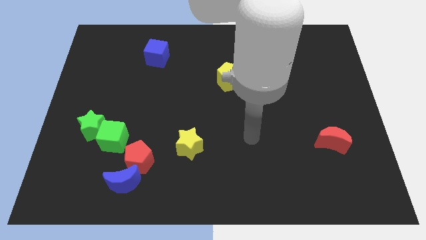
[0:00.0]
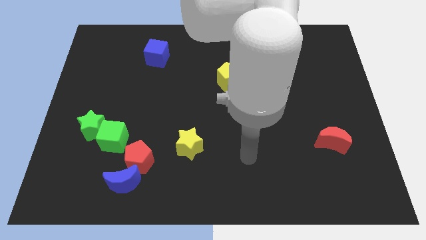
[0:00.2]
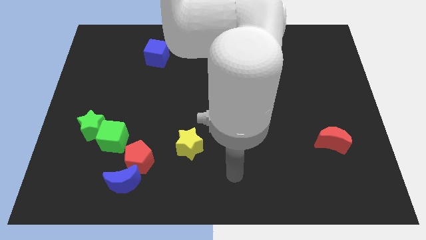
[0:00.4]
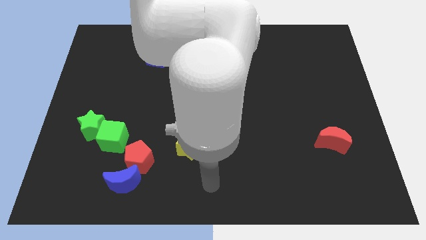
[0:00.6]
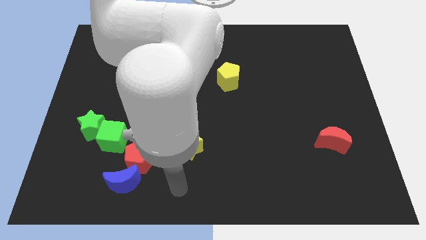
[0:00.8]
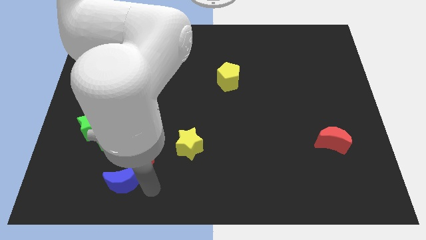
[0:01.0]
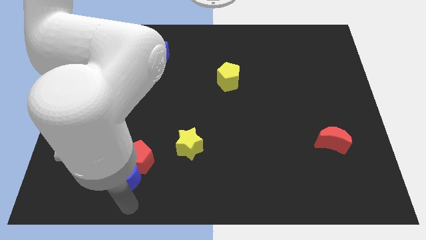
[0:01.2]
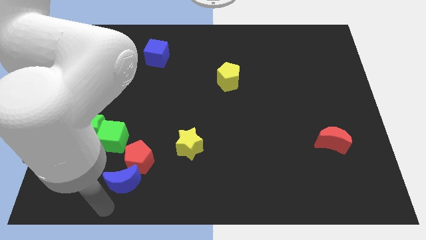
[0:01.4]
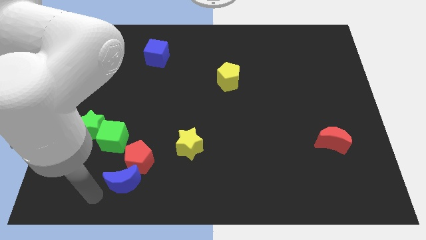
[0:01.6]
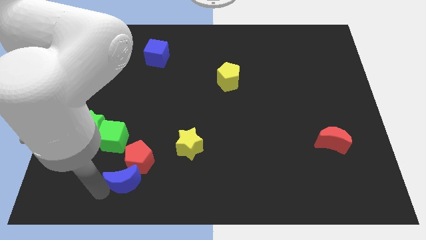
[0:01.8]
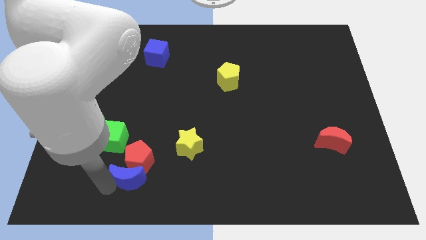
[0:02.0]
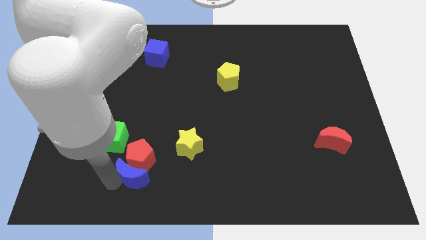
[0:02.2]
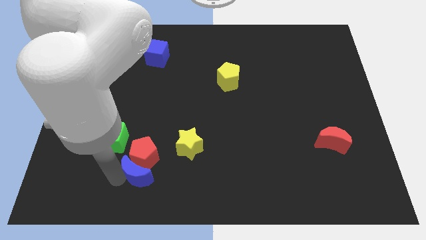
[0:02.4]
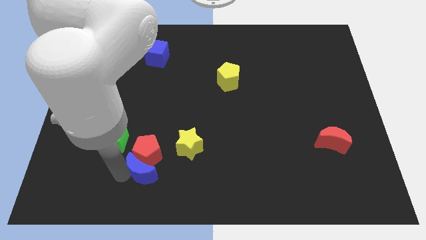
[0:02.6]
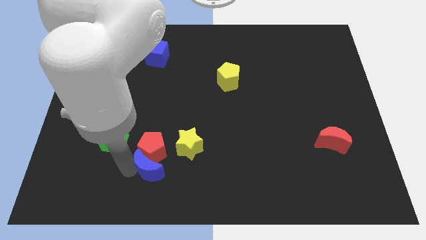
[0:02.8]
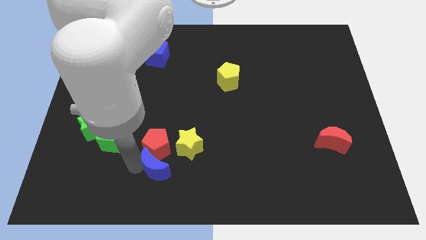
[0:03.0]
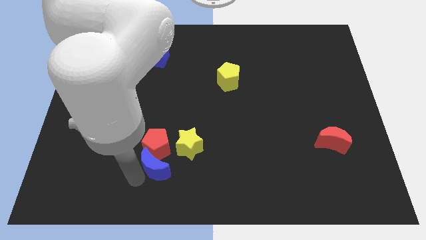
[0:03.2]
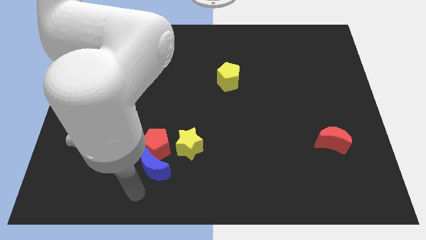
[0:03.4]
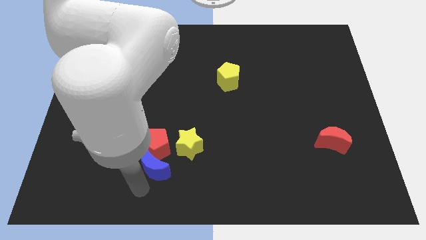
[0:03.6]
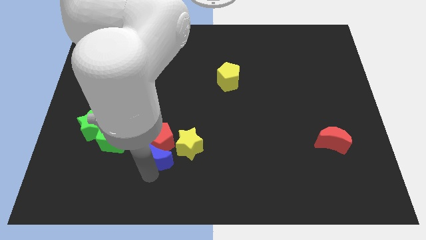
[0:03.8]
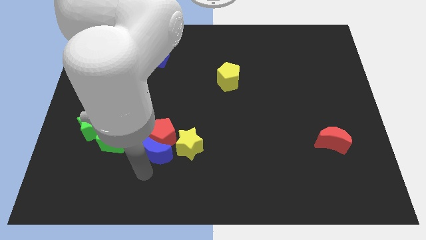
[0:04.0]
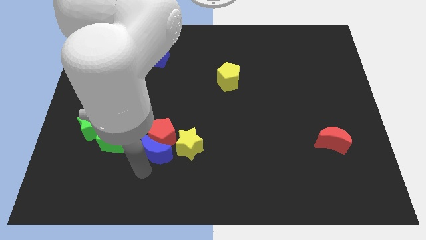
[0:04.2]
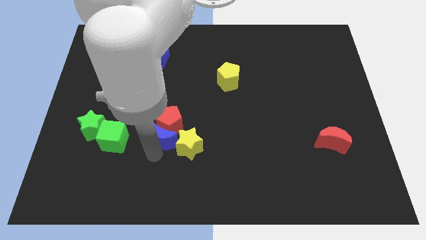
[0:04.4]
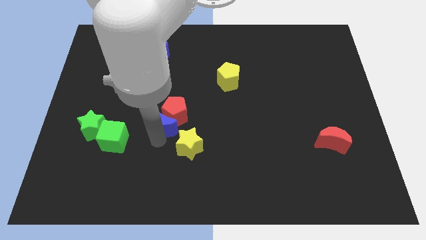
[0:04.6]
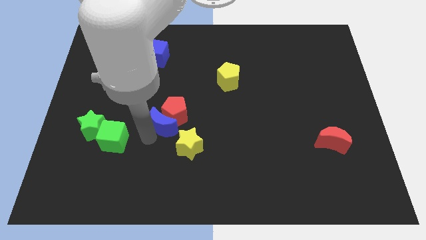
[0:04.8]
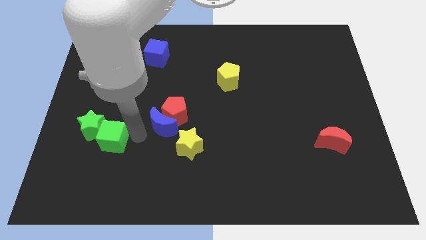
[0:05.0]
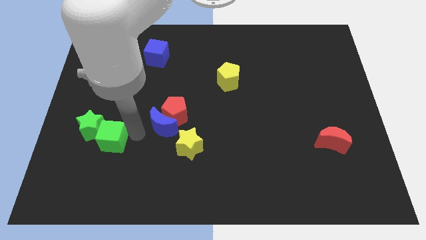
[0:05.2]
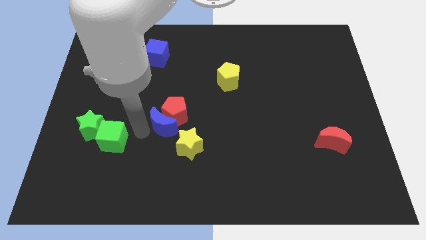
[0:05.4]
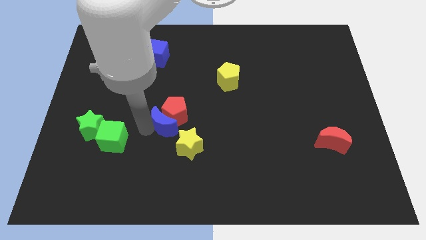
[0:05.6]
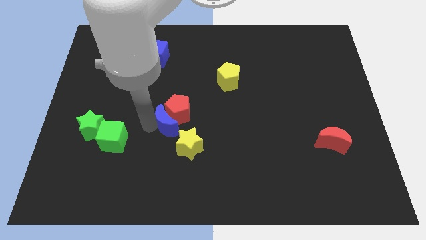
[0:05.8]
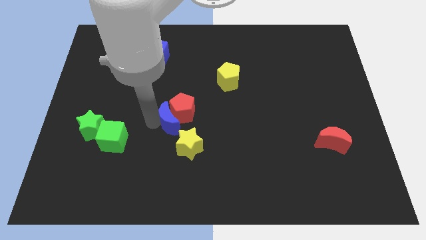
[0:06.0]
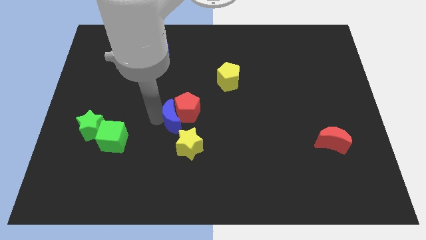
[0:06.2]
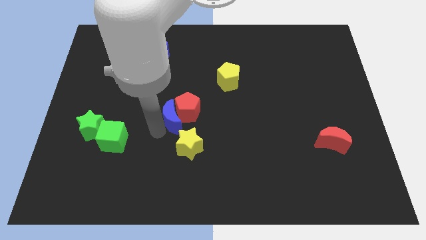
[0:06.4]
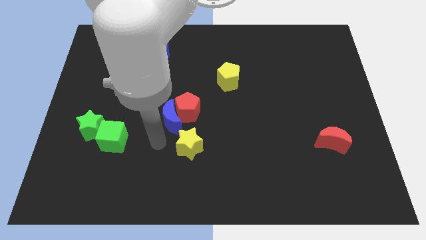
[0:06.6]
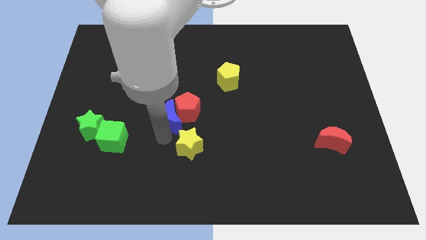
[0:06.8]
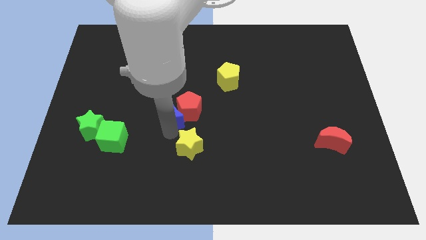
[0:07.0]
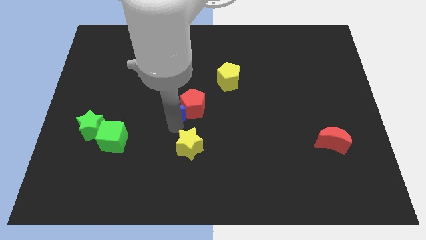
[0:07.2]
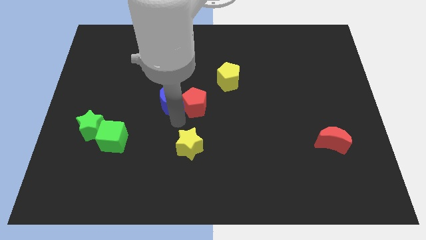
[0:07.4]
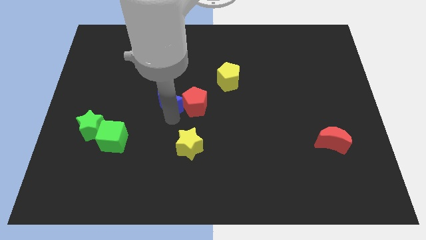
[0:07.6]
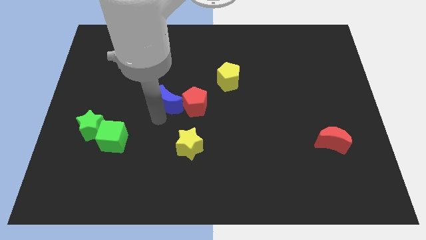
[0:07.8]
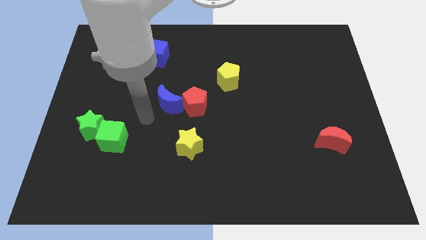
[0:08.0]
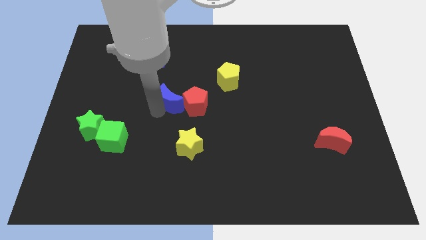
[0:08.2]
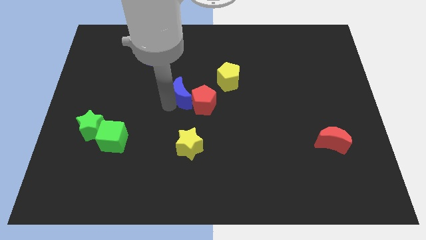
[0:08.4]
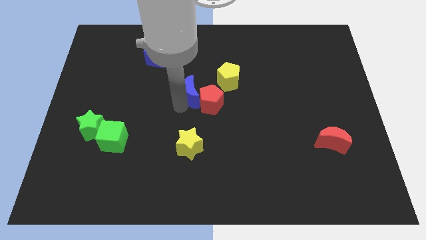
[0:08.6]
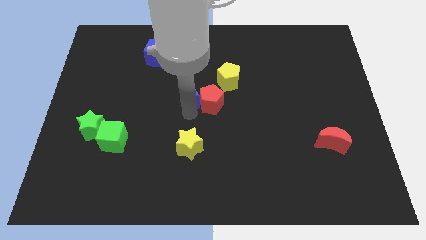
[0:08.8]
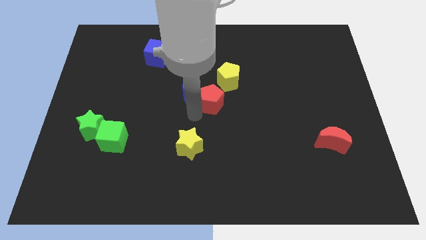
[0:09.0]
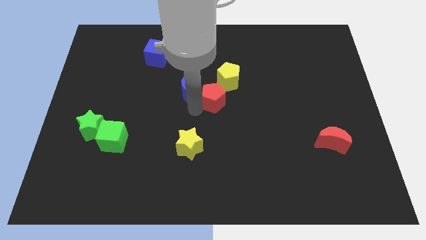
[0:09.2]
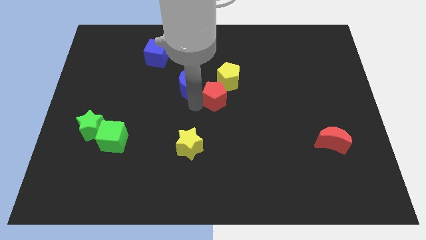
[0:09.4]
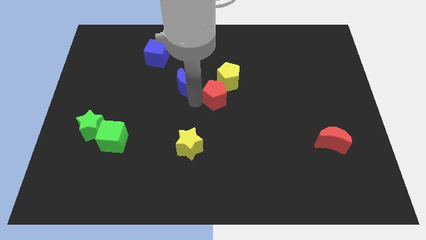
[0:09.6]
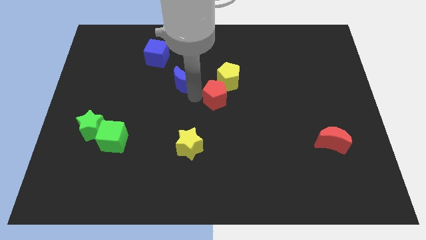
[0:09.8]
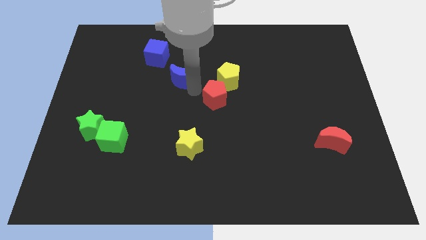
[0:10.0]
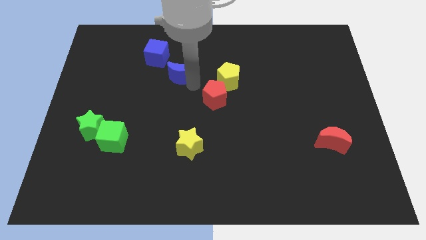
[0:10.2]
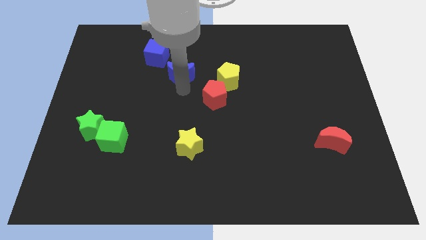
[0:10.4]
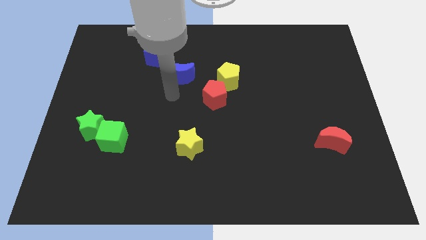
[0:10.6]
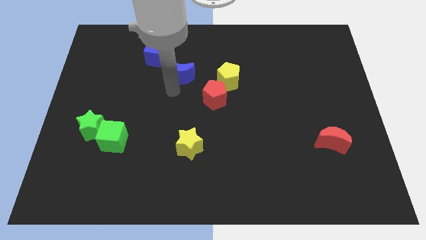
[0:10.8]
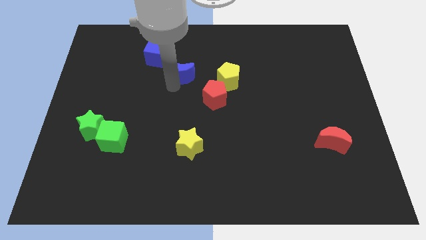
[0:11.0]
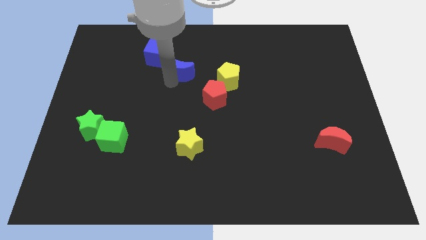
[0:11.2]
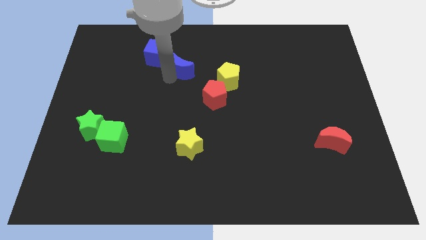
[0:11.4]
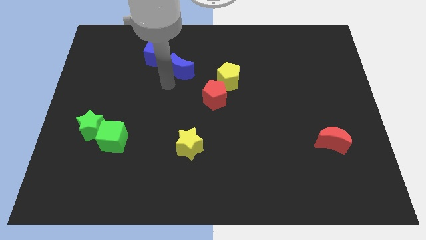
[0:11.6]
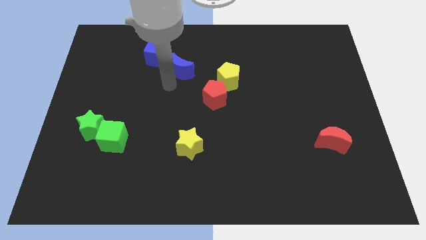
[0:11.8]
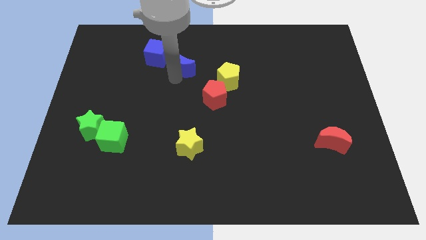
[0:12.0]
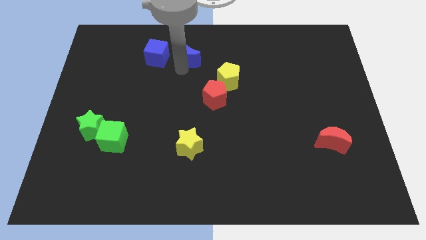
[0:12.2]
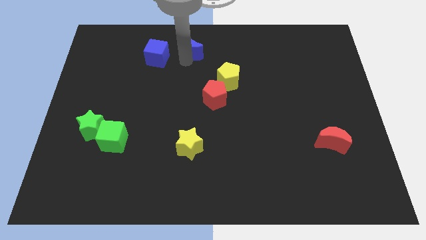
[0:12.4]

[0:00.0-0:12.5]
move the blue moon to the top

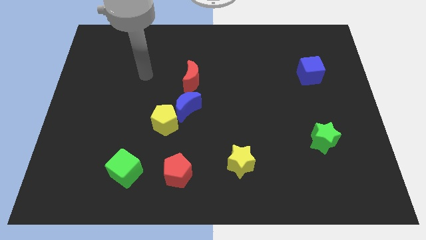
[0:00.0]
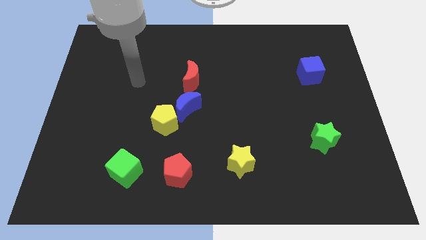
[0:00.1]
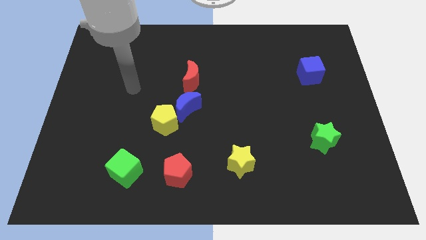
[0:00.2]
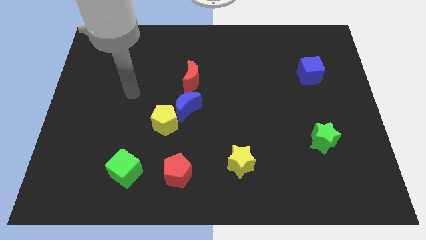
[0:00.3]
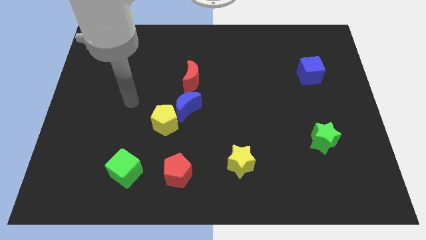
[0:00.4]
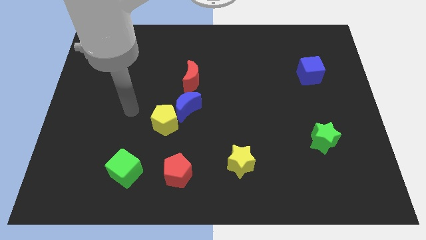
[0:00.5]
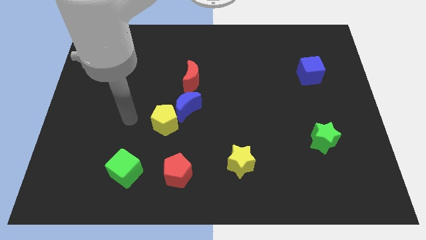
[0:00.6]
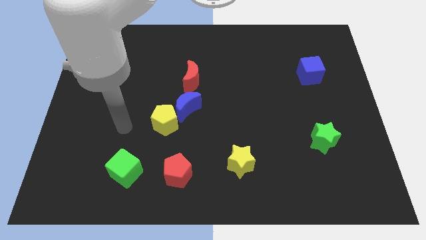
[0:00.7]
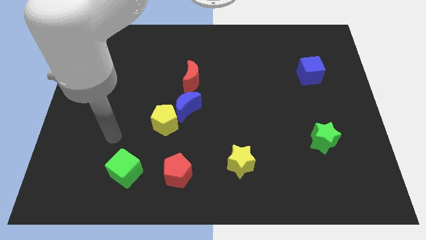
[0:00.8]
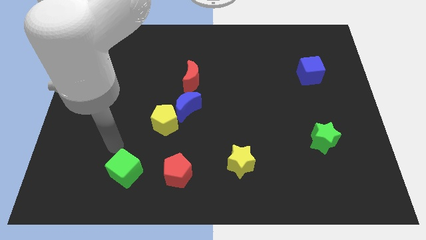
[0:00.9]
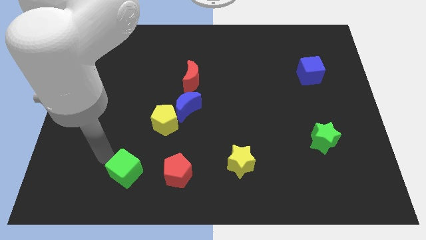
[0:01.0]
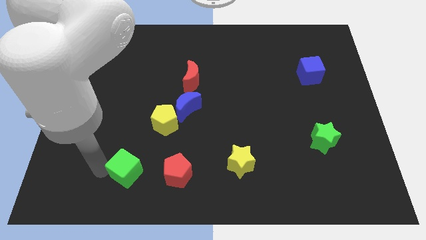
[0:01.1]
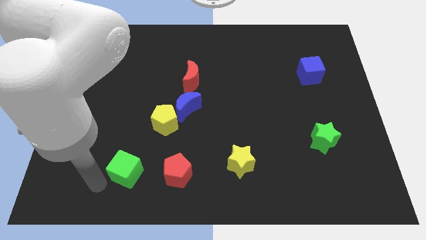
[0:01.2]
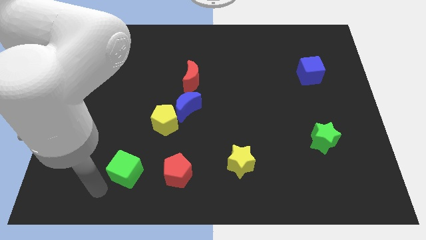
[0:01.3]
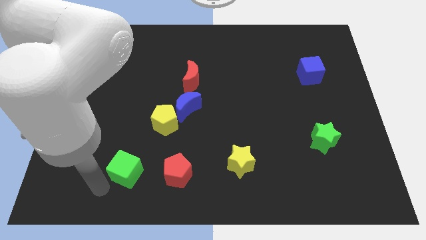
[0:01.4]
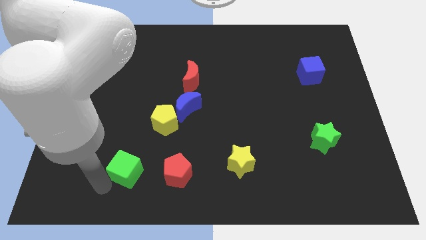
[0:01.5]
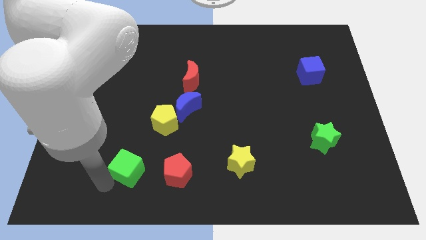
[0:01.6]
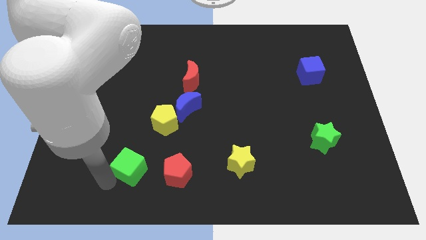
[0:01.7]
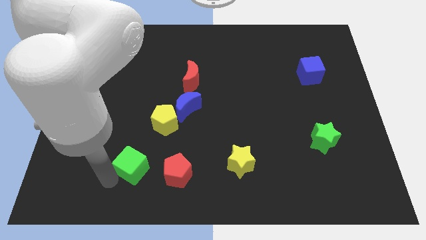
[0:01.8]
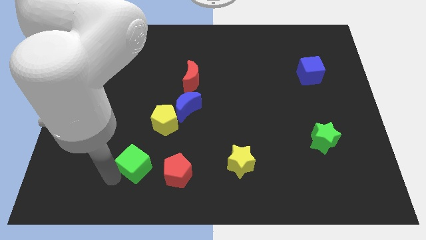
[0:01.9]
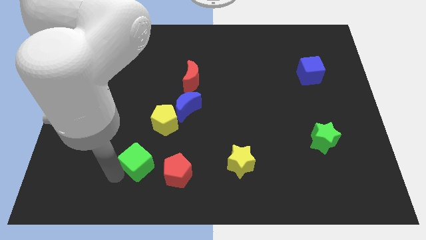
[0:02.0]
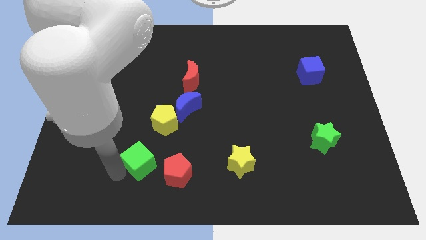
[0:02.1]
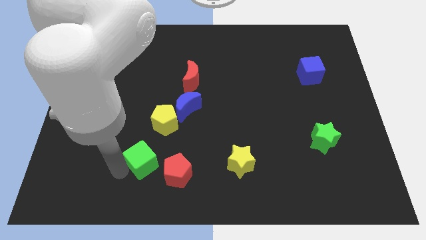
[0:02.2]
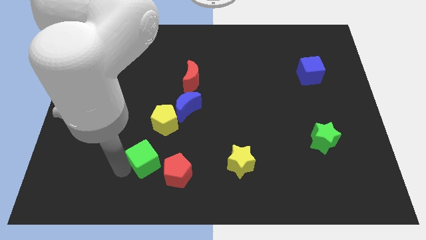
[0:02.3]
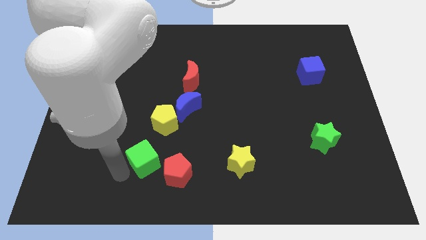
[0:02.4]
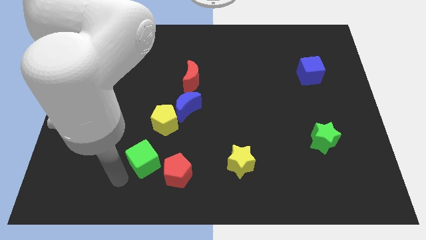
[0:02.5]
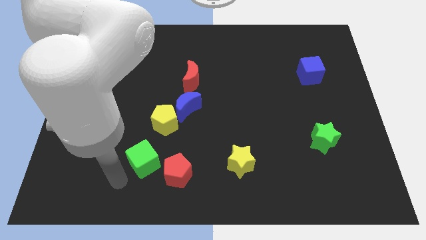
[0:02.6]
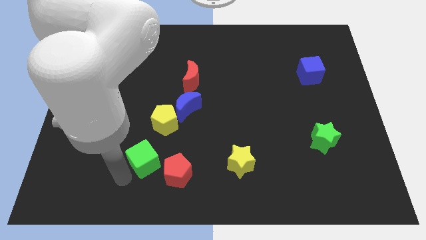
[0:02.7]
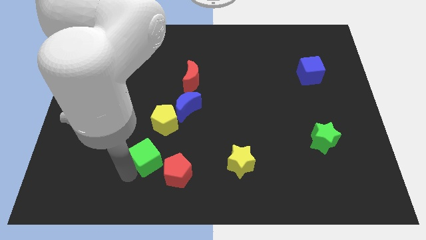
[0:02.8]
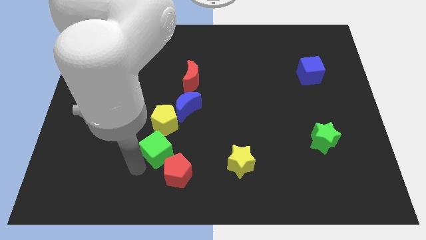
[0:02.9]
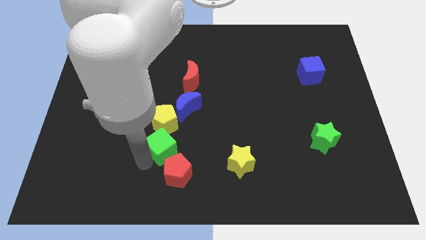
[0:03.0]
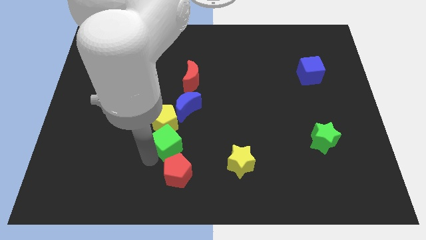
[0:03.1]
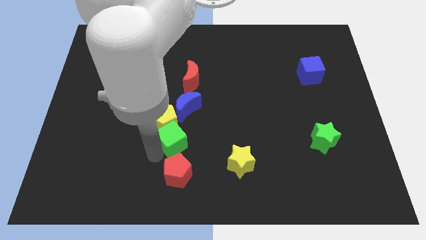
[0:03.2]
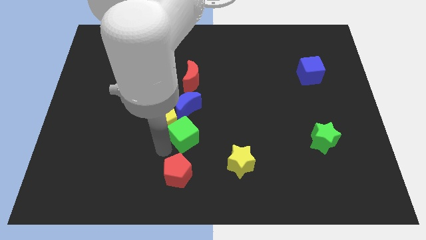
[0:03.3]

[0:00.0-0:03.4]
slide the green cube to the middle
